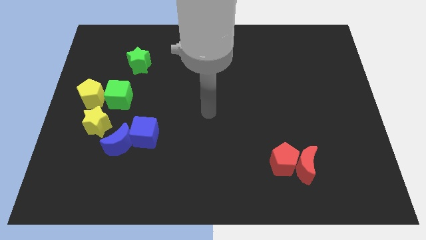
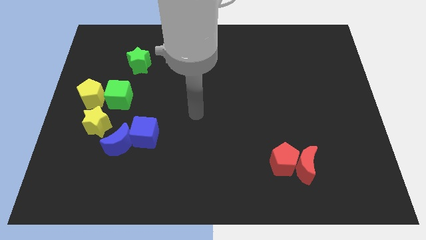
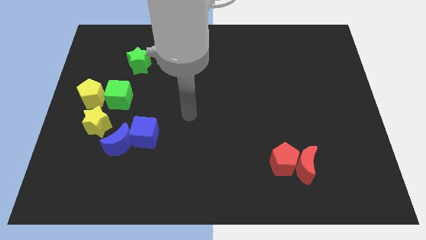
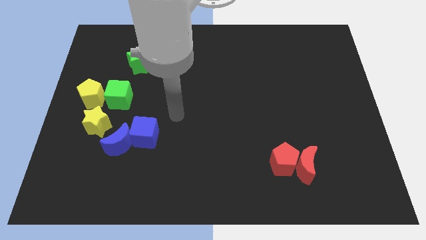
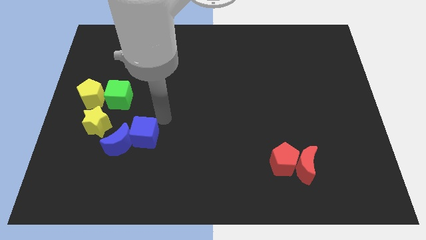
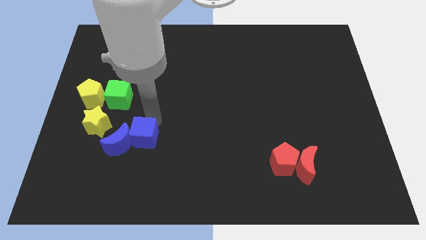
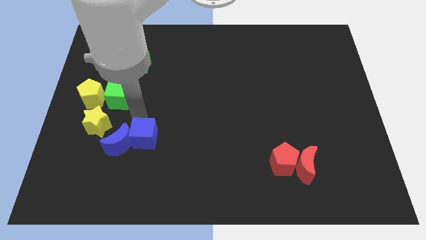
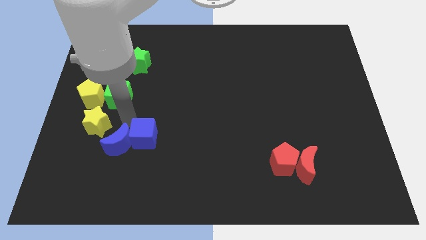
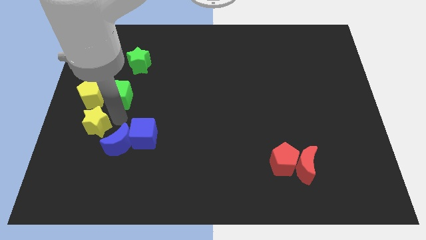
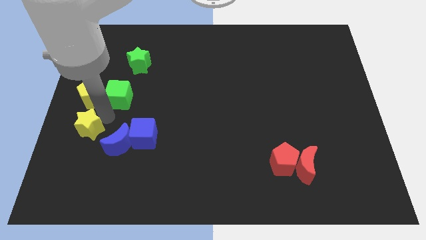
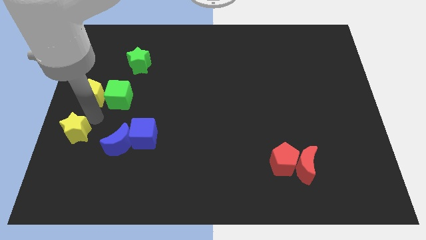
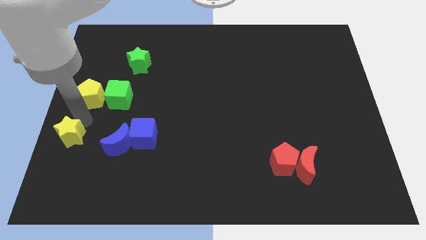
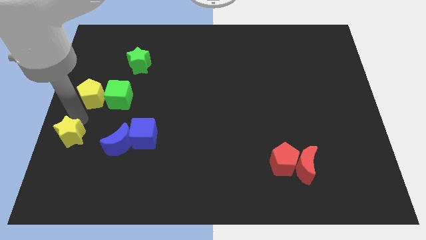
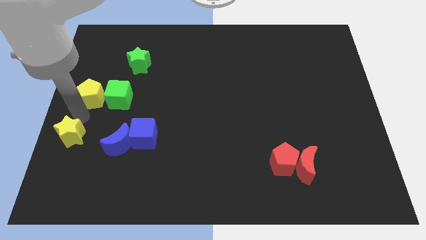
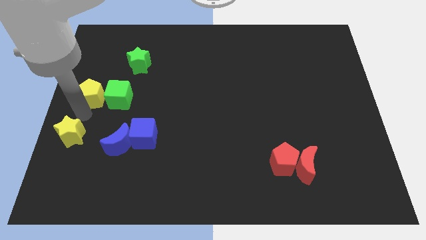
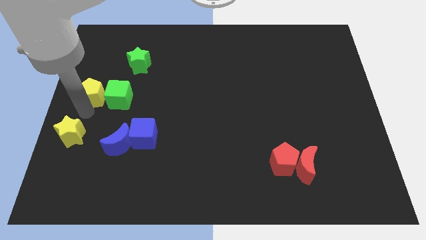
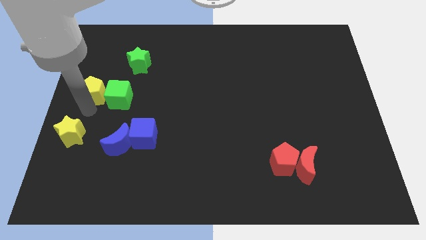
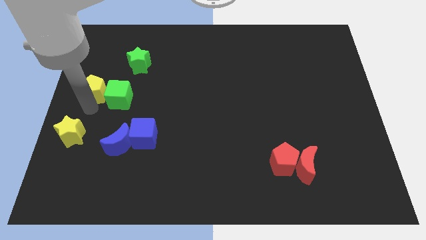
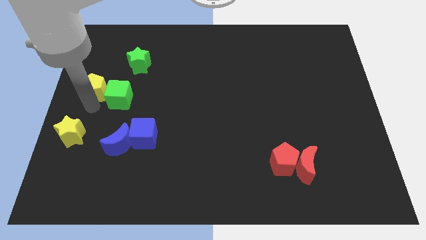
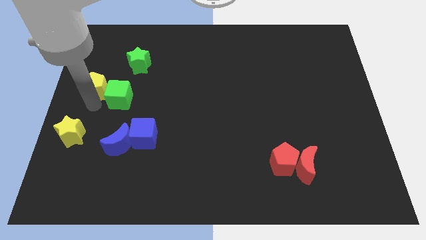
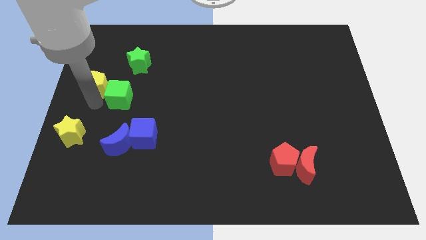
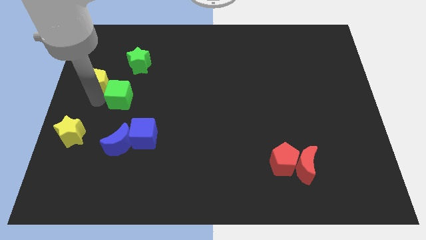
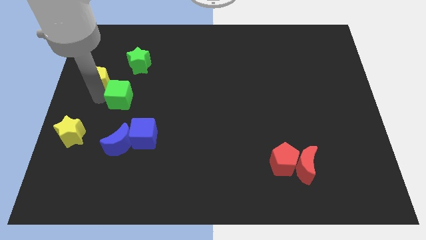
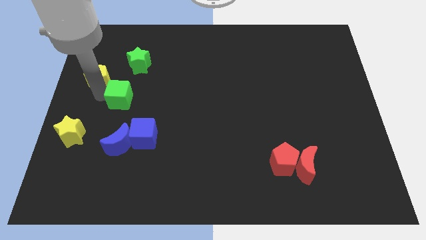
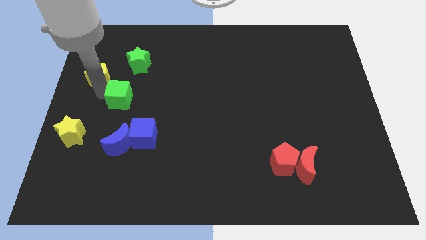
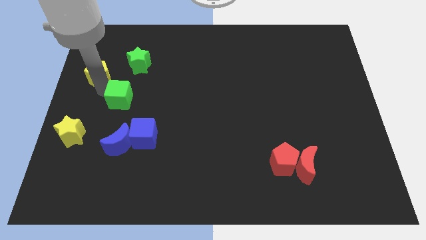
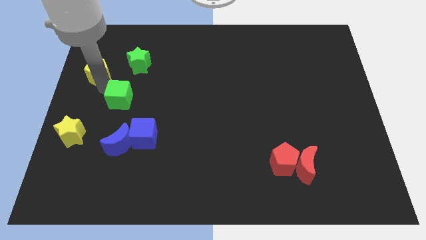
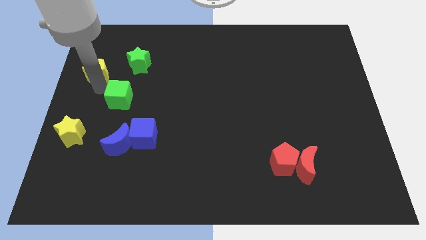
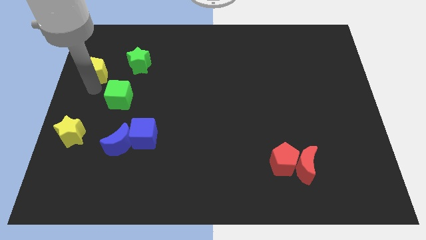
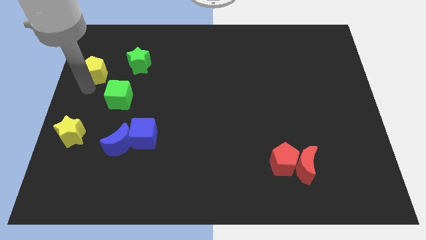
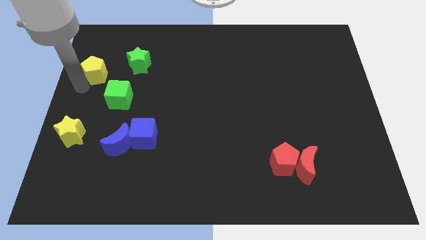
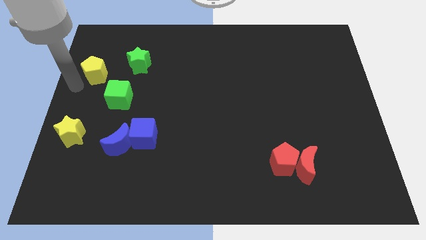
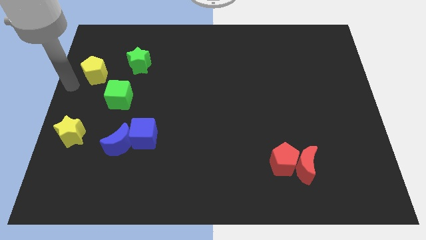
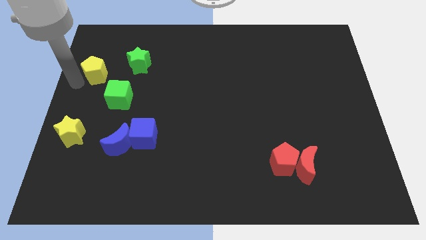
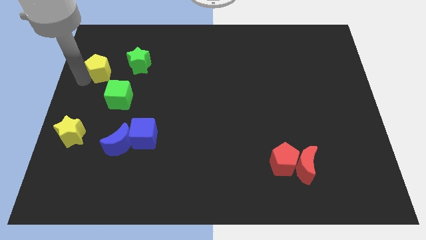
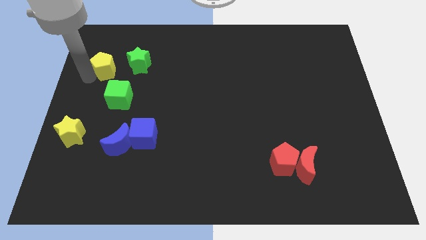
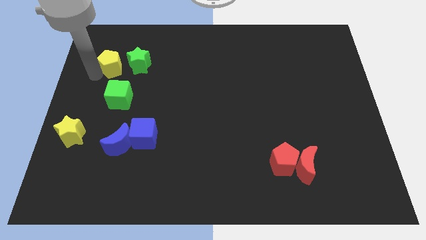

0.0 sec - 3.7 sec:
push the yellow pentagon up and right a little bit

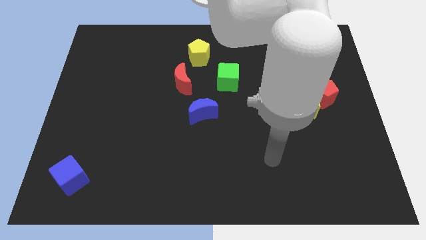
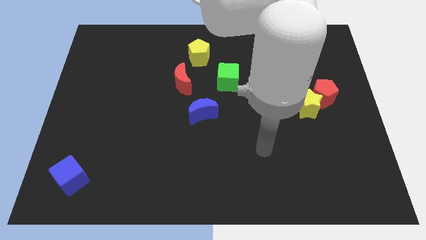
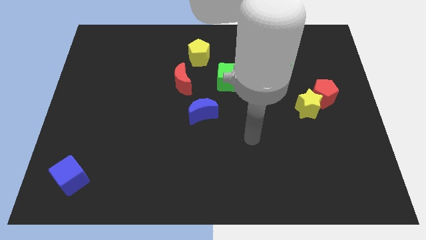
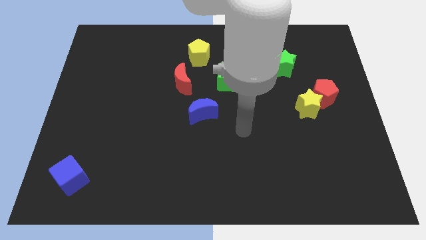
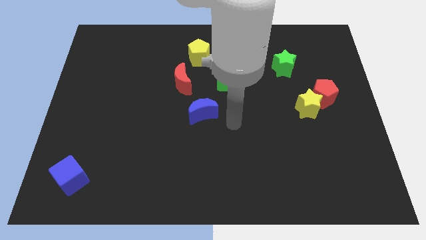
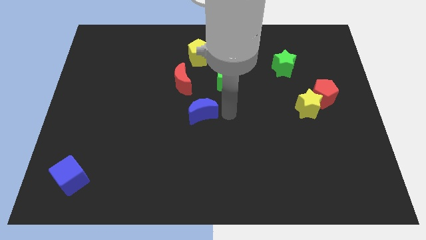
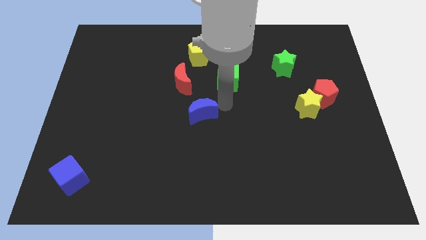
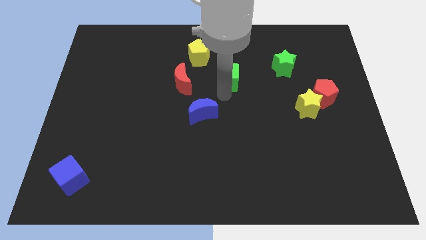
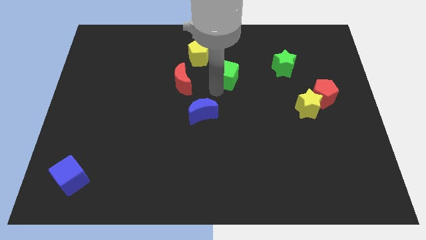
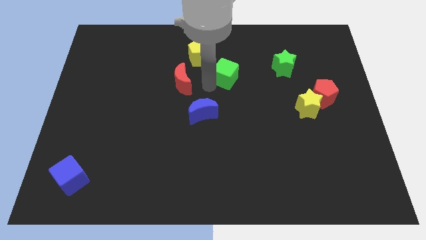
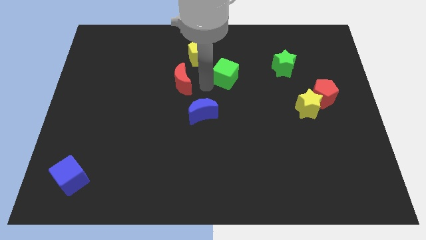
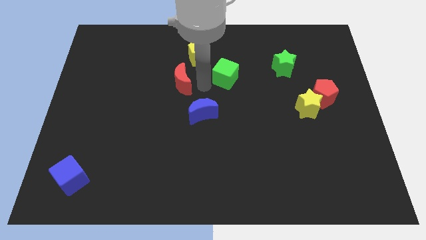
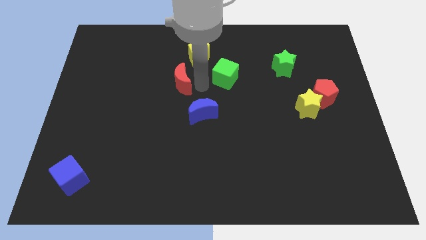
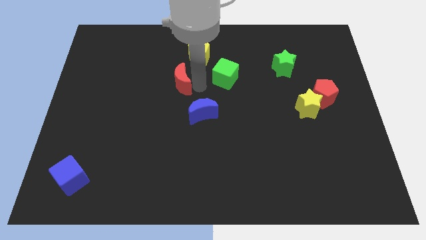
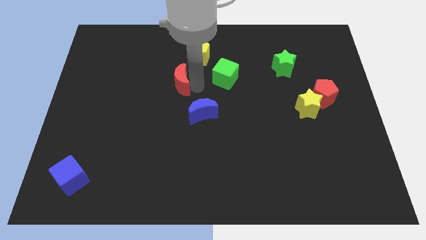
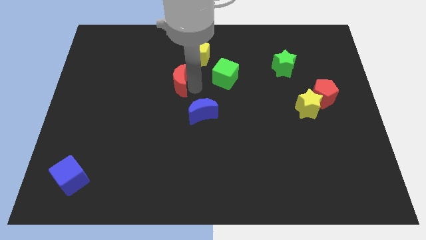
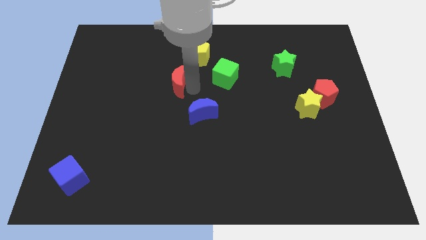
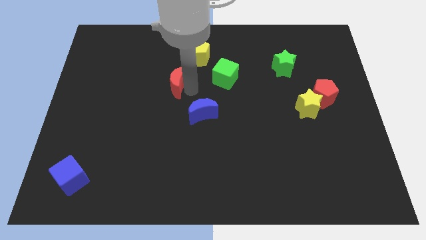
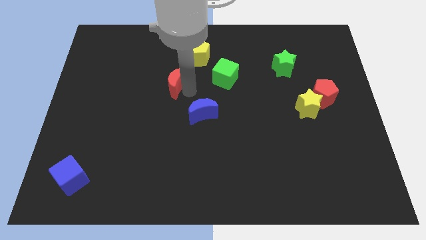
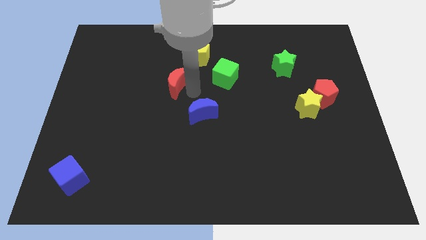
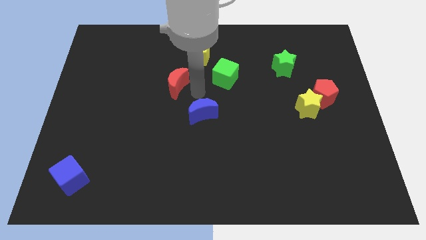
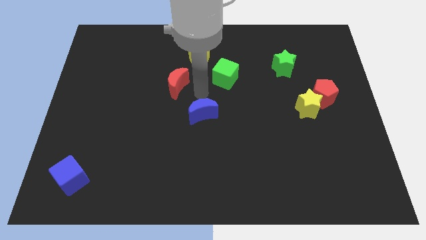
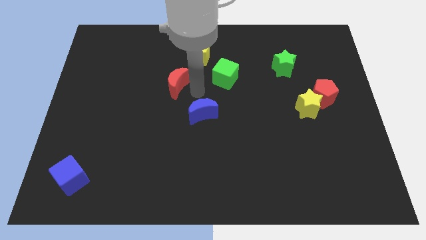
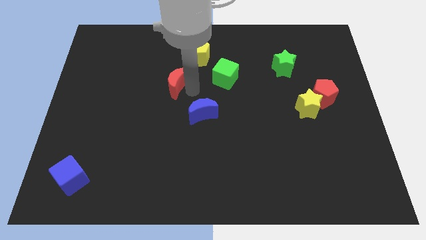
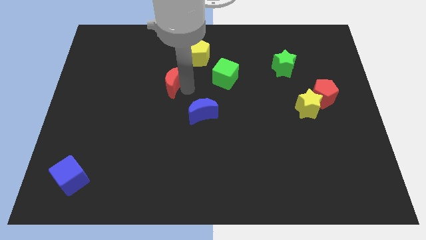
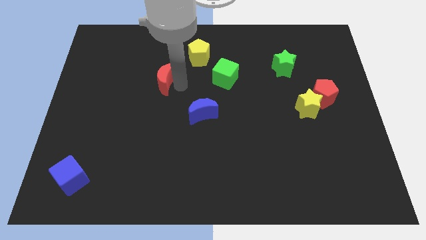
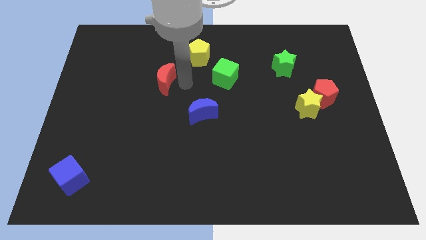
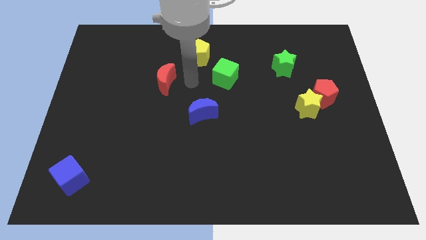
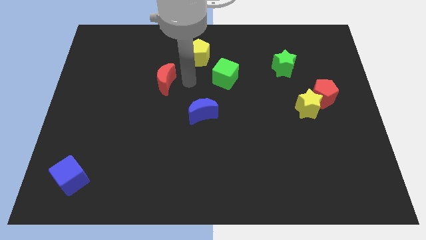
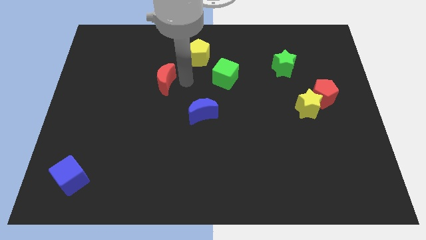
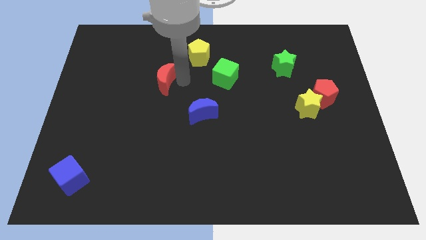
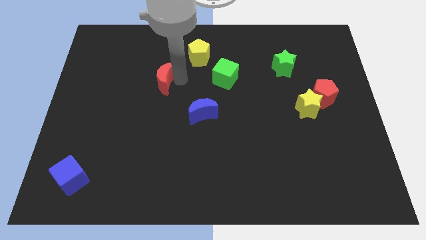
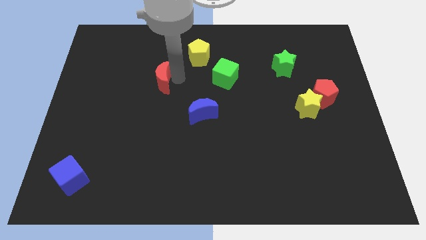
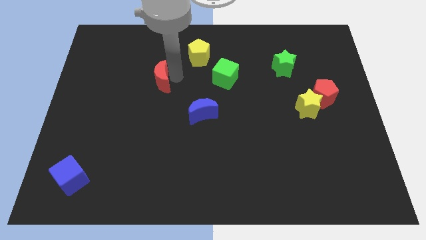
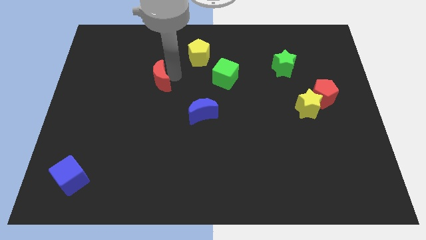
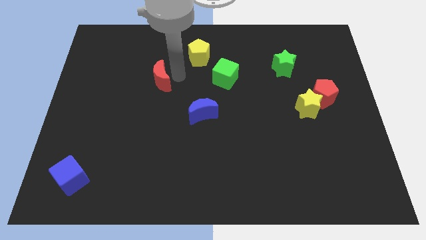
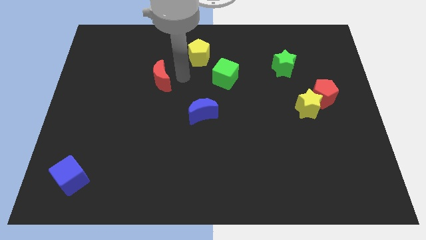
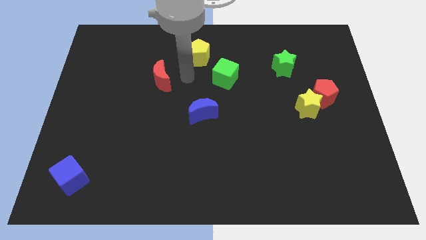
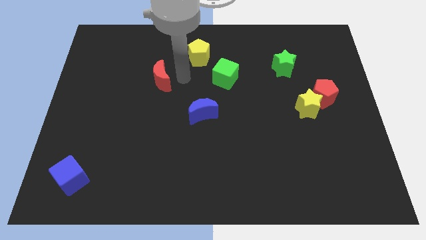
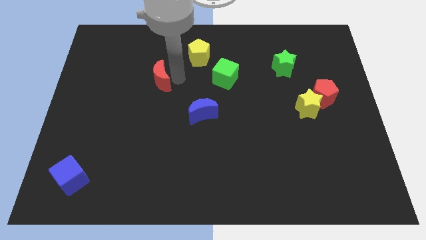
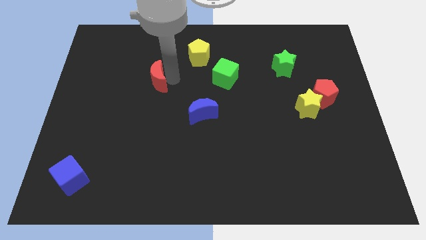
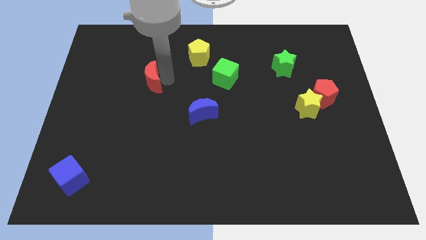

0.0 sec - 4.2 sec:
slide the red moon a little left

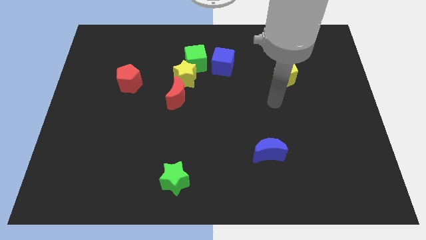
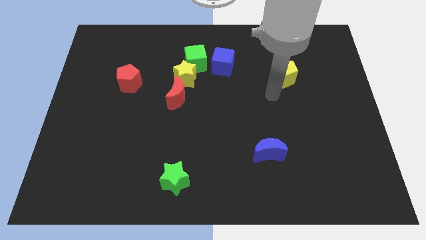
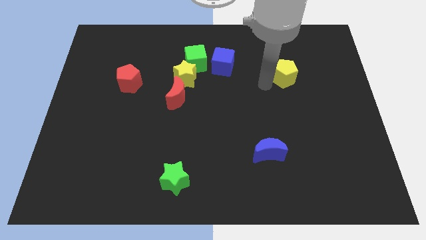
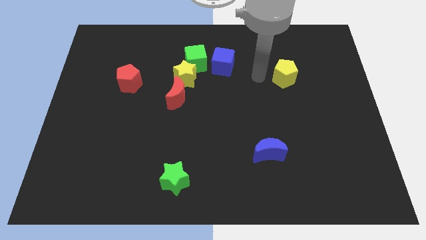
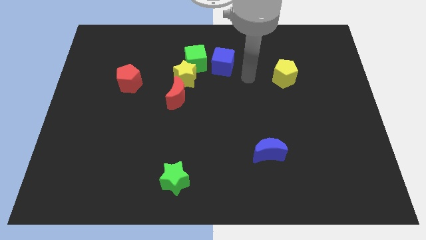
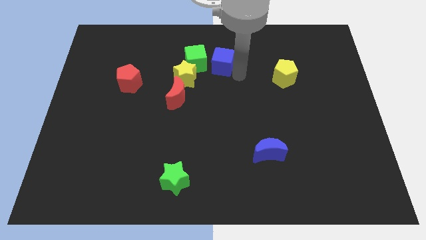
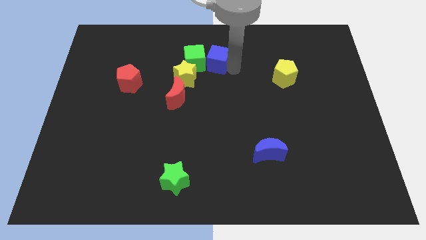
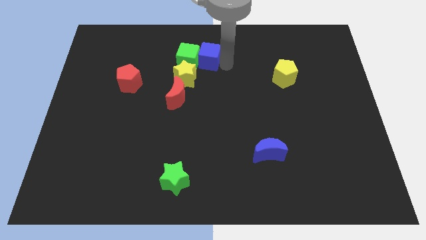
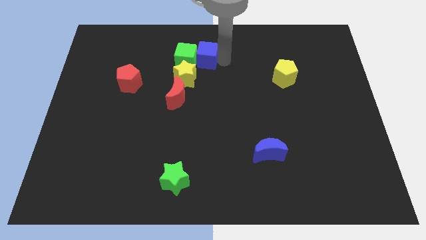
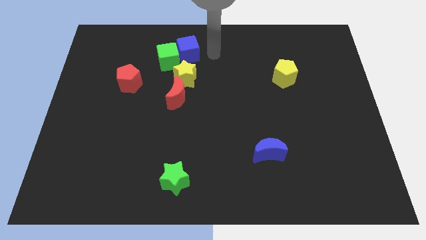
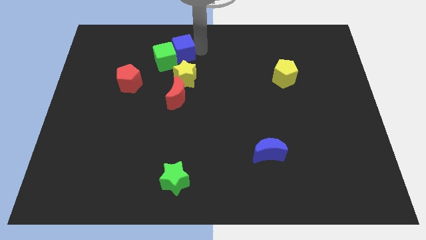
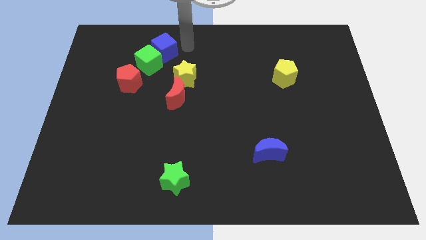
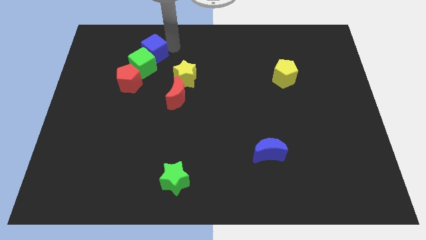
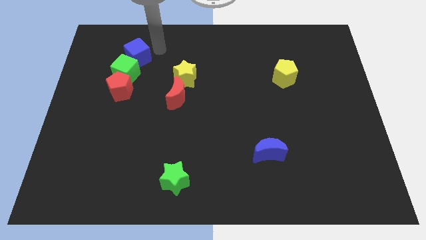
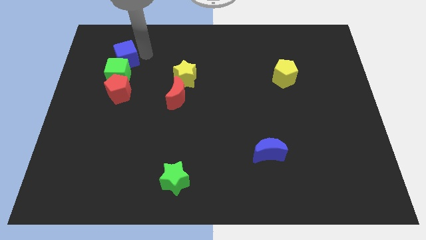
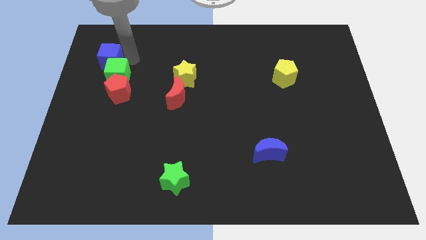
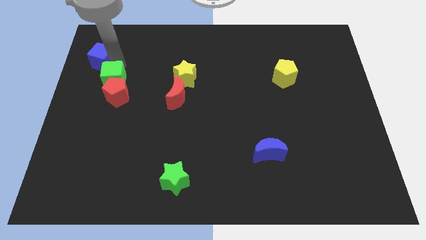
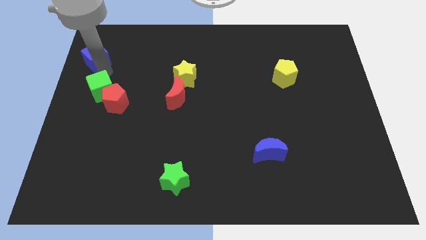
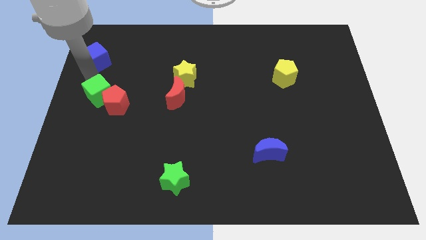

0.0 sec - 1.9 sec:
push the green cube downwards and to the left diagonally
